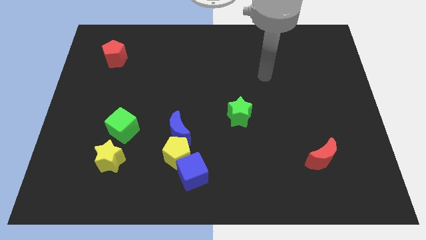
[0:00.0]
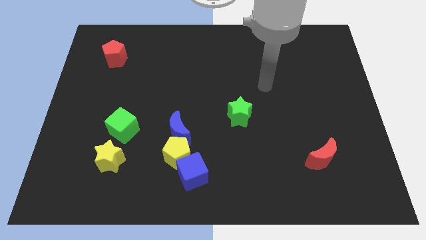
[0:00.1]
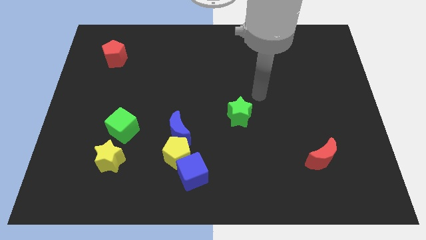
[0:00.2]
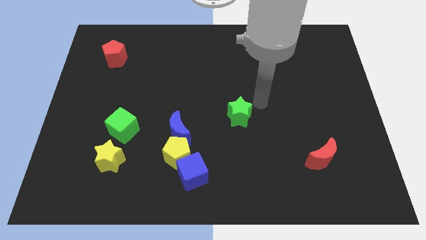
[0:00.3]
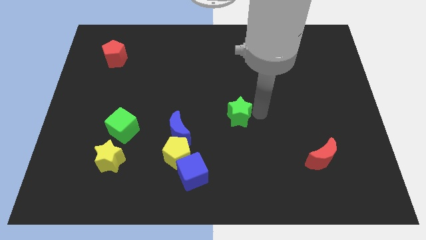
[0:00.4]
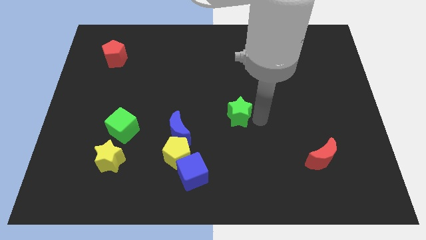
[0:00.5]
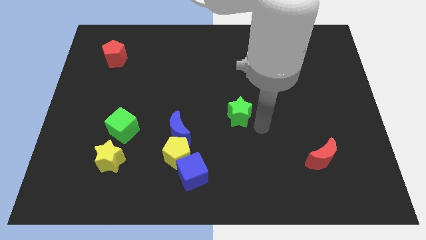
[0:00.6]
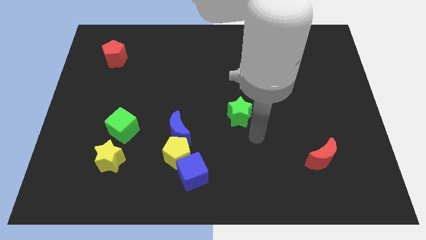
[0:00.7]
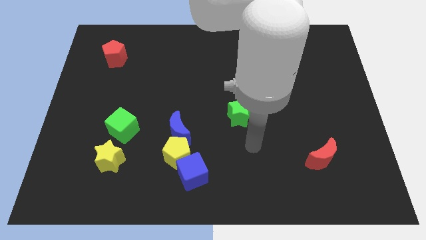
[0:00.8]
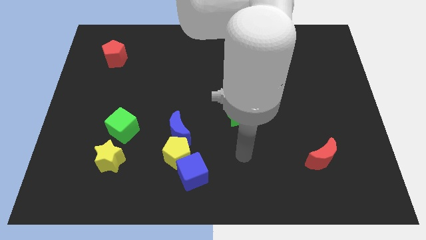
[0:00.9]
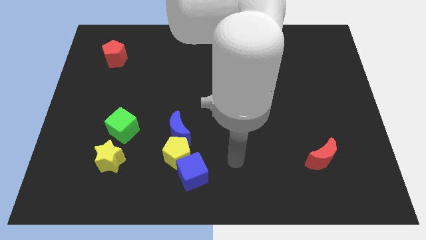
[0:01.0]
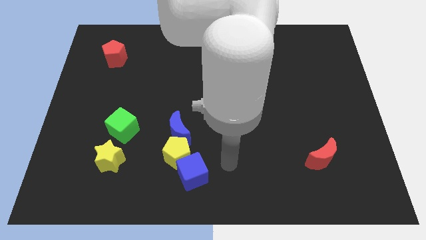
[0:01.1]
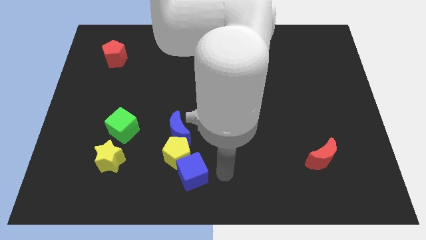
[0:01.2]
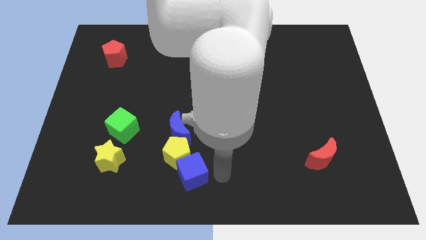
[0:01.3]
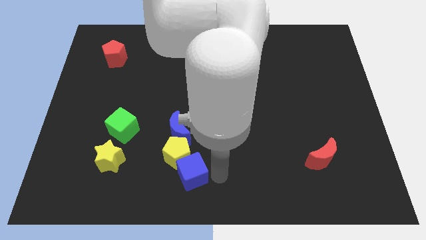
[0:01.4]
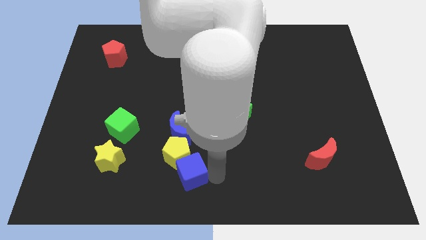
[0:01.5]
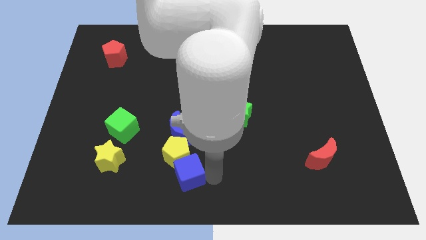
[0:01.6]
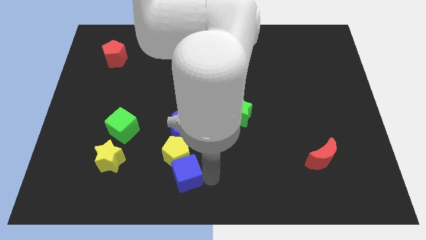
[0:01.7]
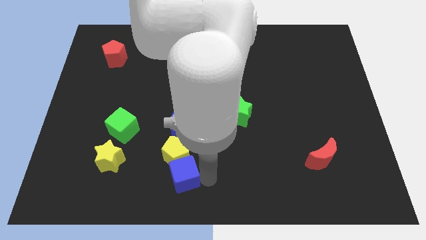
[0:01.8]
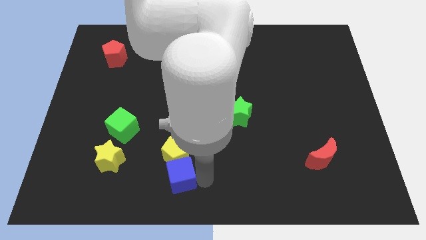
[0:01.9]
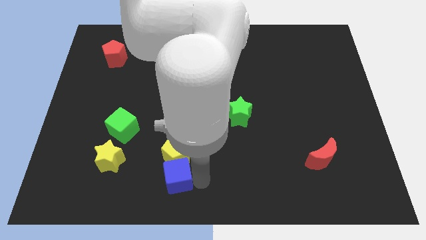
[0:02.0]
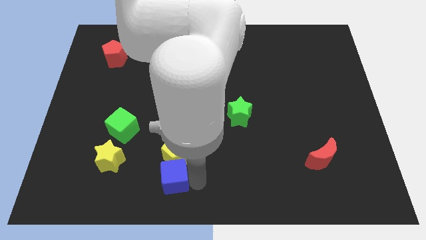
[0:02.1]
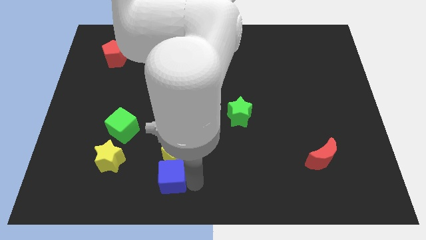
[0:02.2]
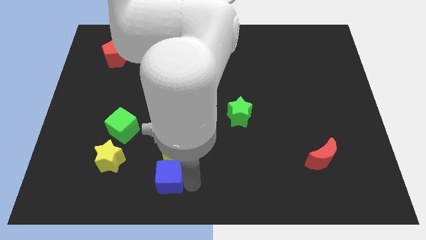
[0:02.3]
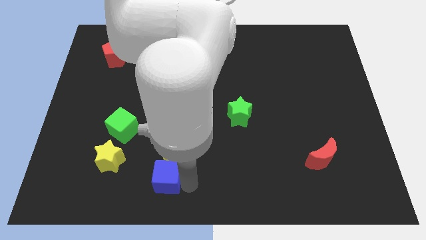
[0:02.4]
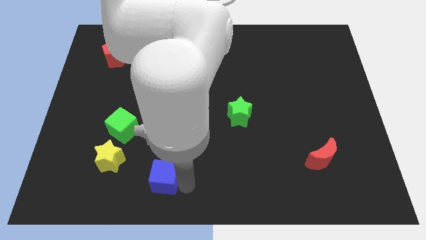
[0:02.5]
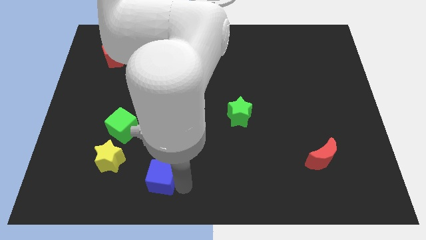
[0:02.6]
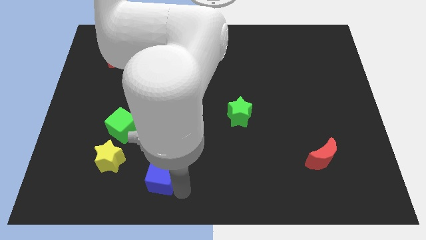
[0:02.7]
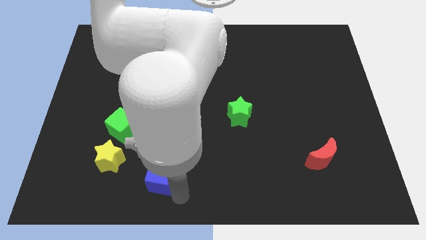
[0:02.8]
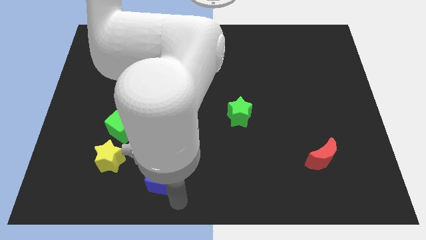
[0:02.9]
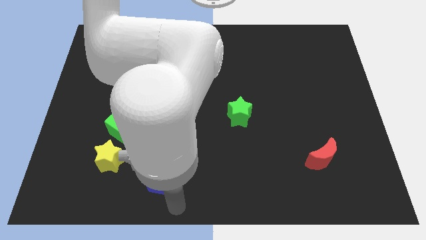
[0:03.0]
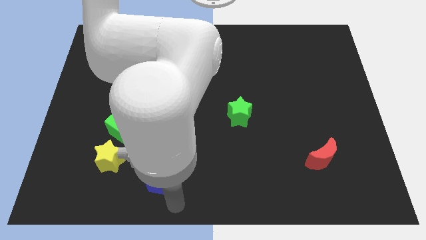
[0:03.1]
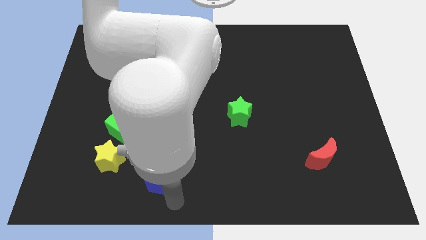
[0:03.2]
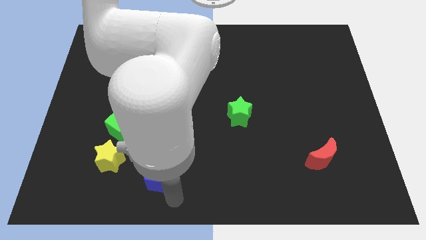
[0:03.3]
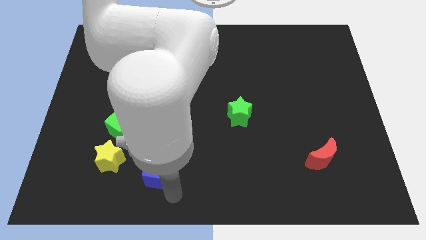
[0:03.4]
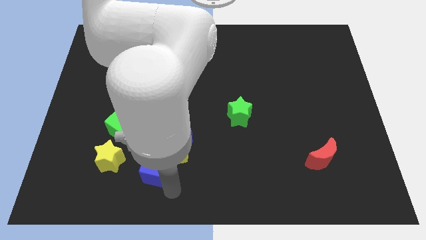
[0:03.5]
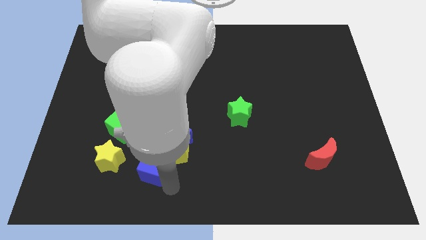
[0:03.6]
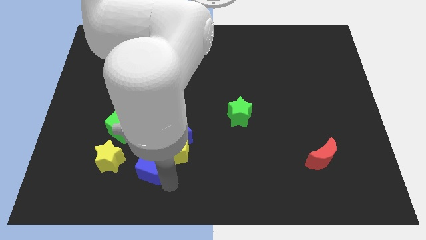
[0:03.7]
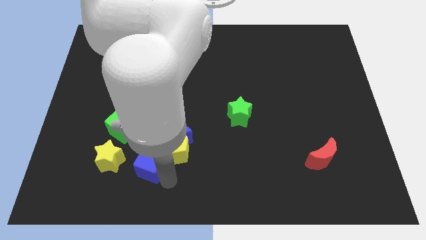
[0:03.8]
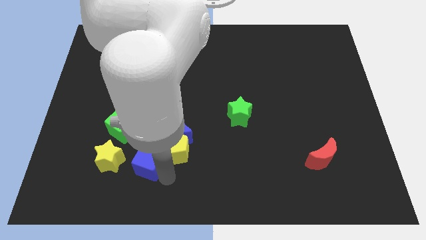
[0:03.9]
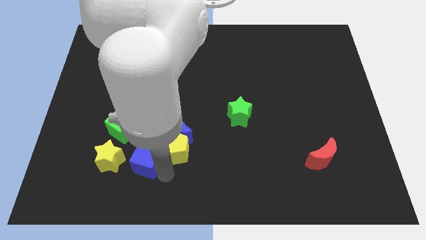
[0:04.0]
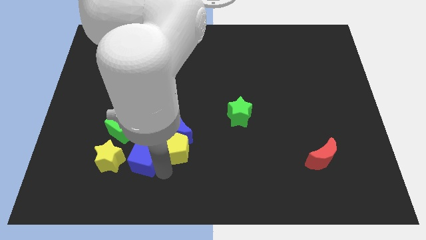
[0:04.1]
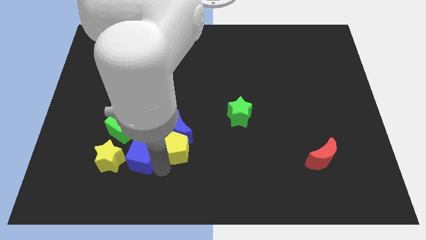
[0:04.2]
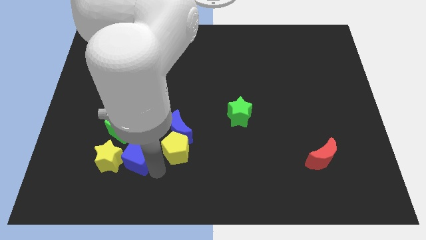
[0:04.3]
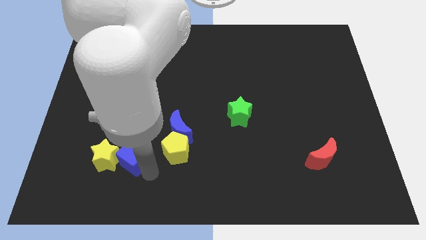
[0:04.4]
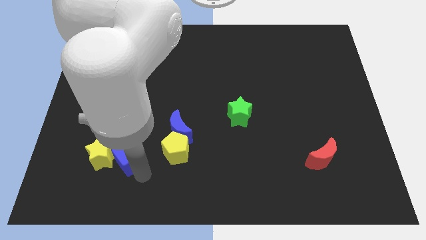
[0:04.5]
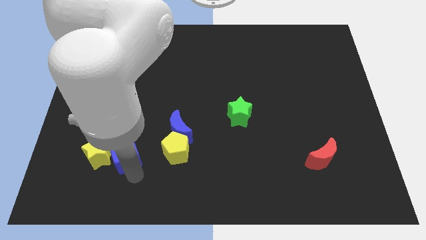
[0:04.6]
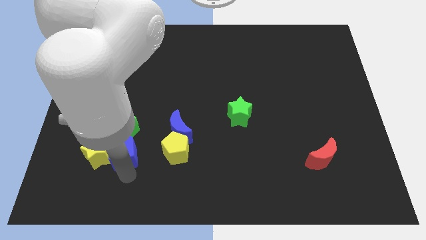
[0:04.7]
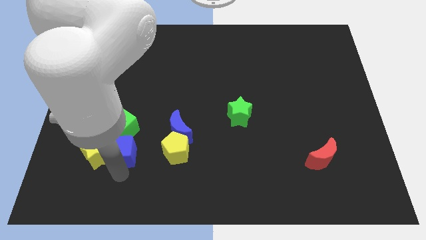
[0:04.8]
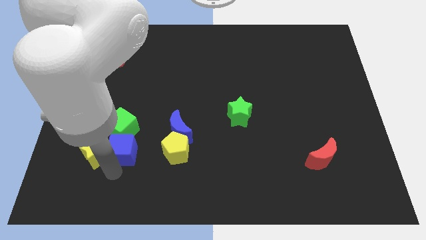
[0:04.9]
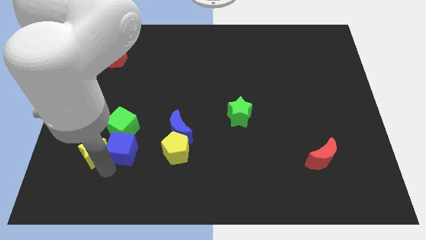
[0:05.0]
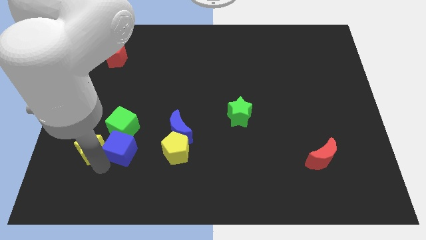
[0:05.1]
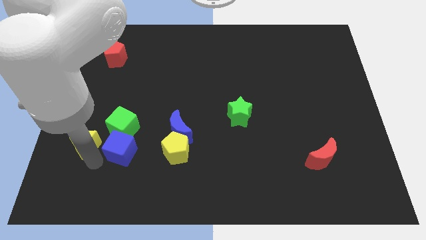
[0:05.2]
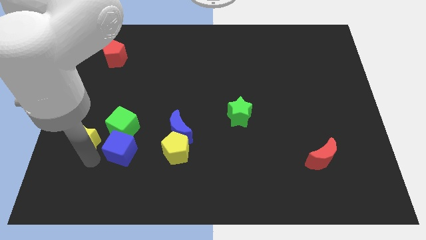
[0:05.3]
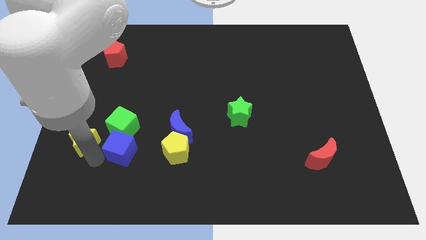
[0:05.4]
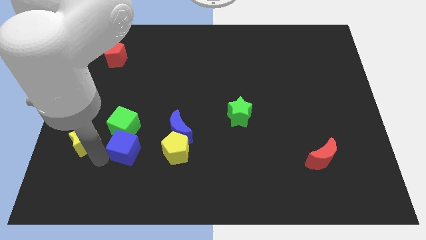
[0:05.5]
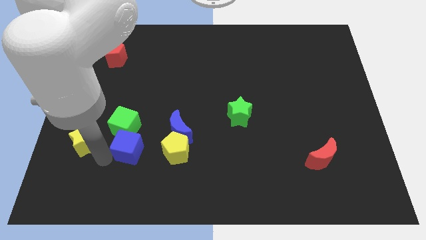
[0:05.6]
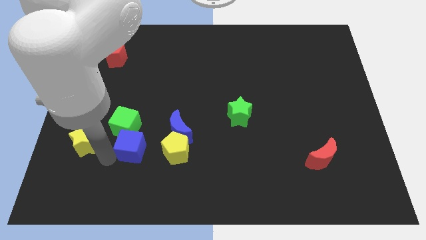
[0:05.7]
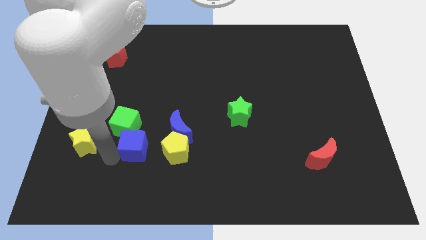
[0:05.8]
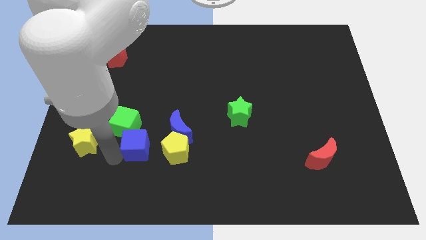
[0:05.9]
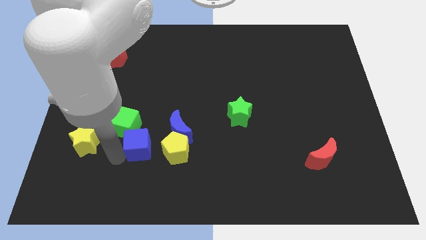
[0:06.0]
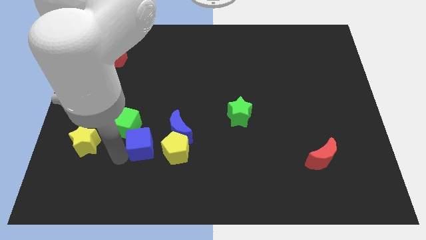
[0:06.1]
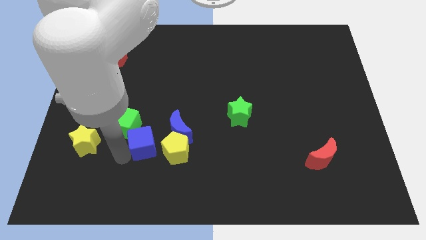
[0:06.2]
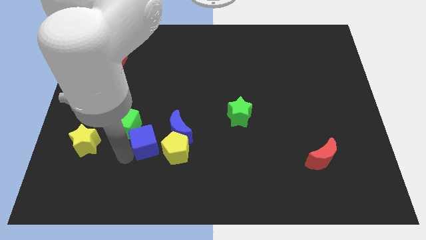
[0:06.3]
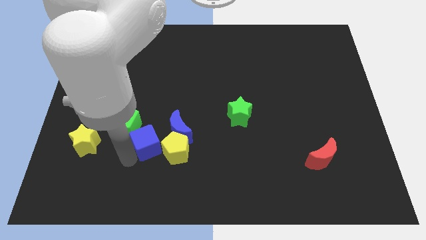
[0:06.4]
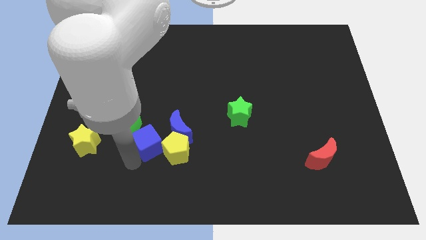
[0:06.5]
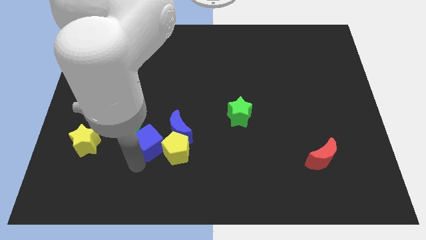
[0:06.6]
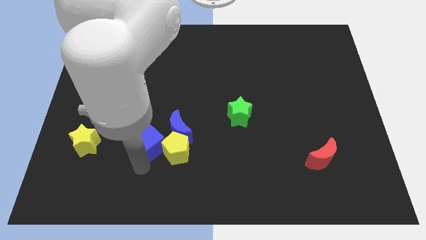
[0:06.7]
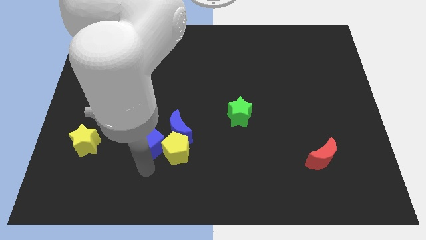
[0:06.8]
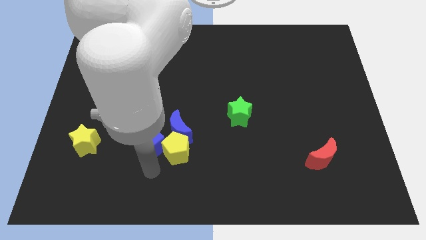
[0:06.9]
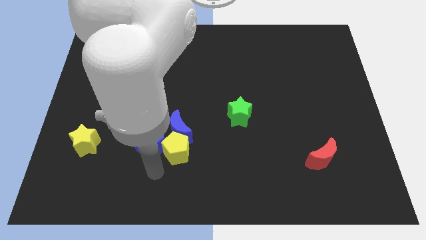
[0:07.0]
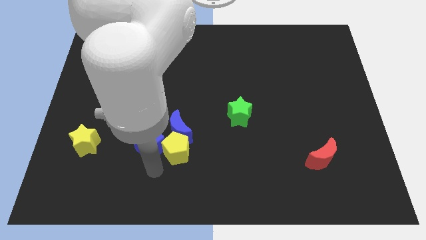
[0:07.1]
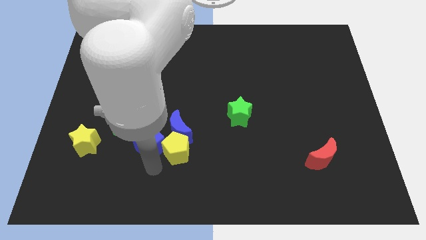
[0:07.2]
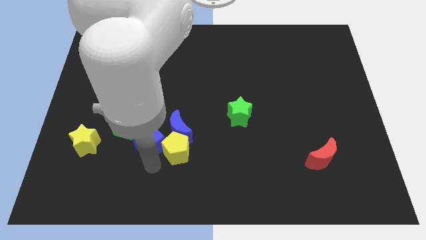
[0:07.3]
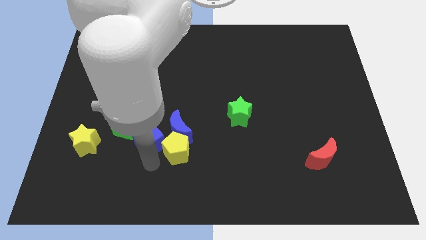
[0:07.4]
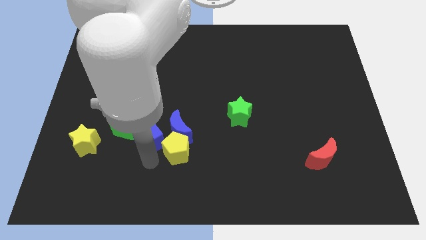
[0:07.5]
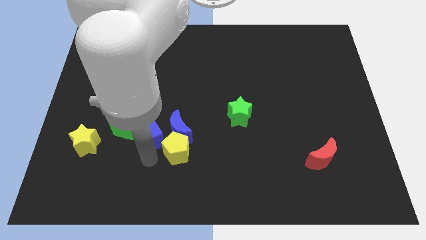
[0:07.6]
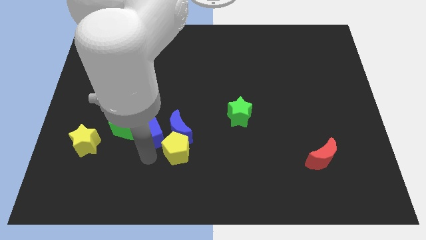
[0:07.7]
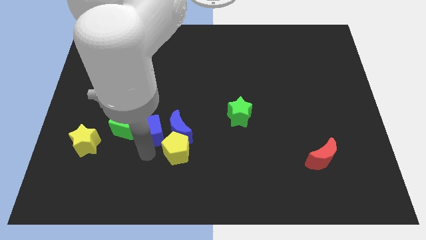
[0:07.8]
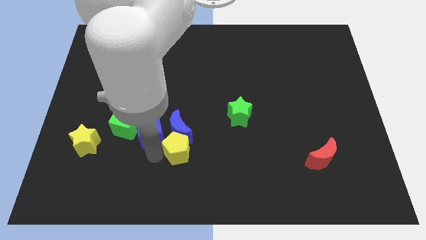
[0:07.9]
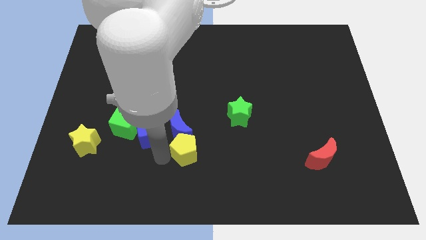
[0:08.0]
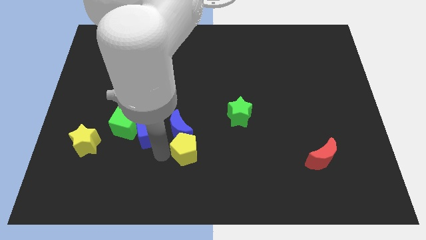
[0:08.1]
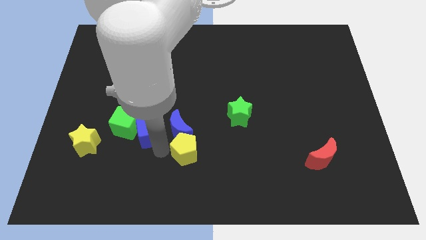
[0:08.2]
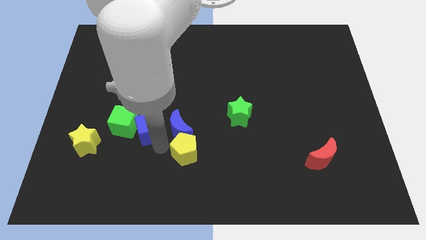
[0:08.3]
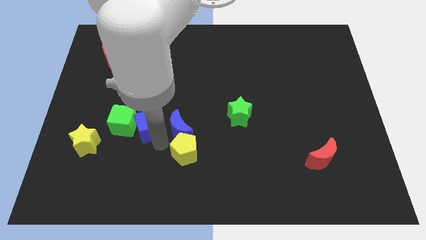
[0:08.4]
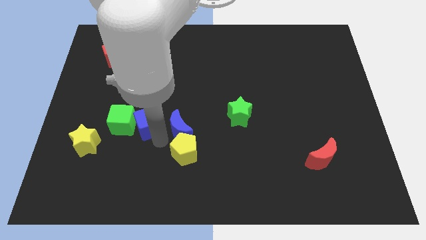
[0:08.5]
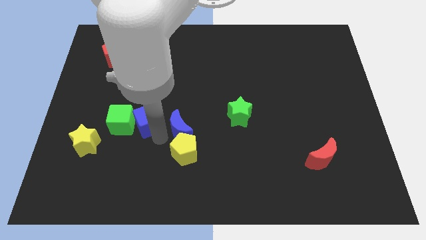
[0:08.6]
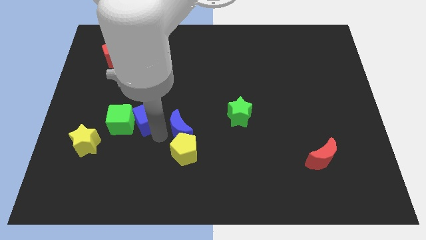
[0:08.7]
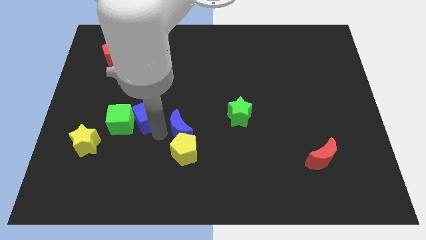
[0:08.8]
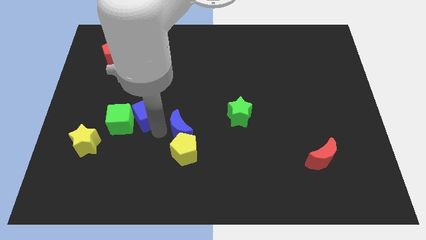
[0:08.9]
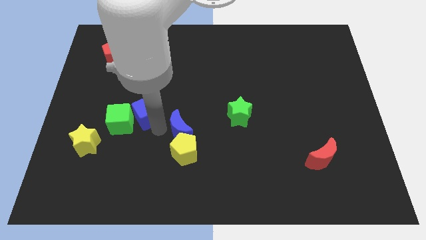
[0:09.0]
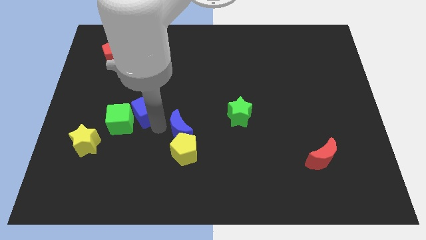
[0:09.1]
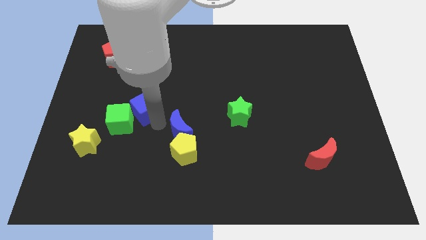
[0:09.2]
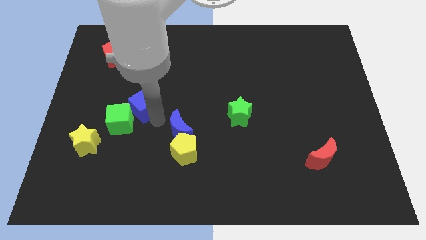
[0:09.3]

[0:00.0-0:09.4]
move the blue cube upwards and to the left diagonally
